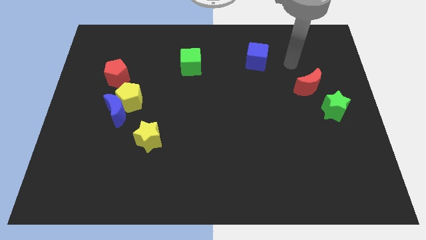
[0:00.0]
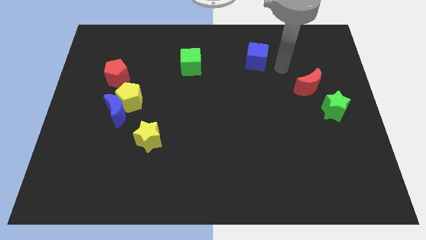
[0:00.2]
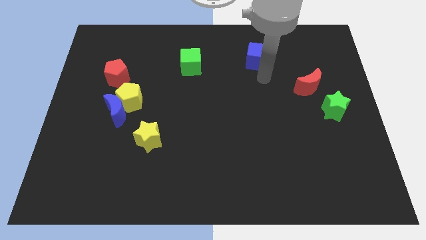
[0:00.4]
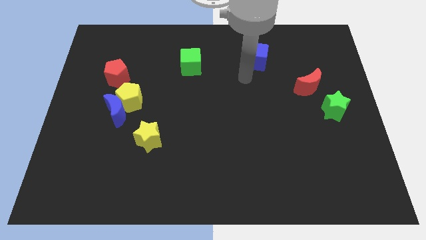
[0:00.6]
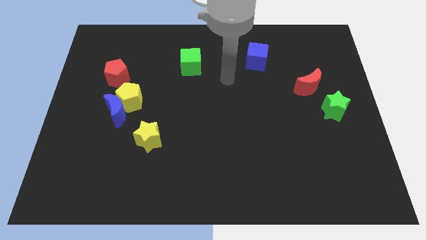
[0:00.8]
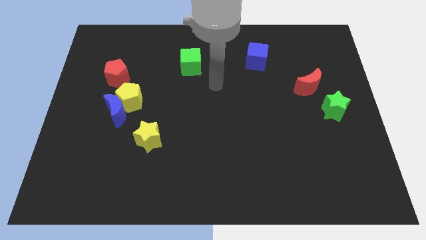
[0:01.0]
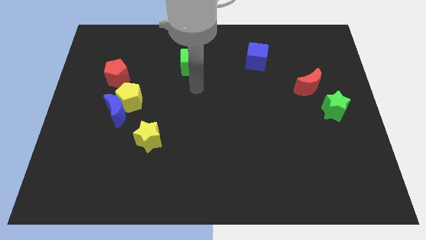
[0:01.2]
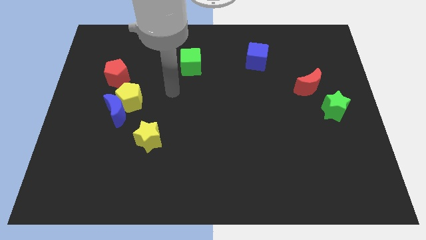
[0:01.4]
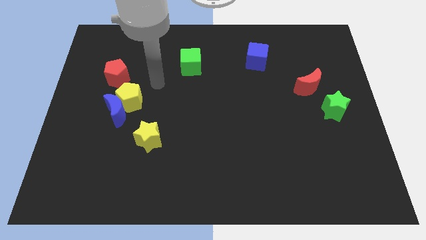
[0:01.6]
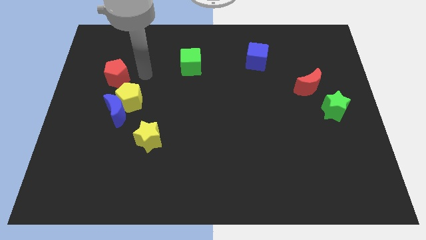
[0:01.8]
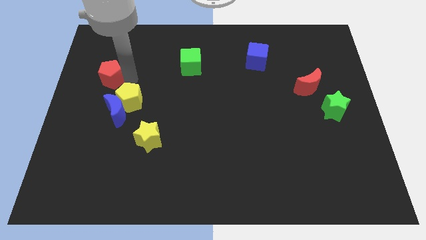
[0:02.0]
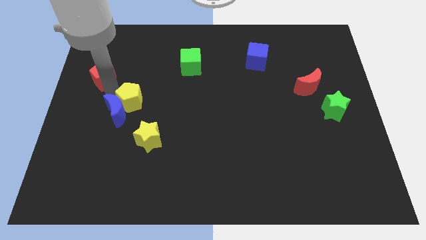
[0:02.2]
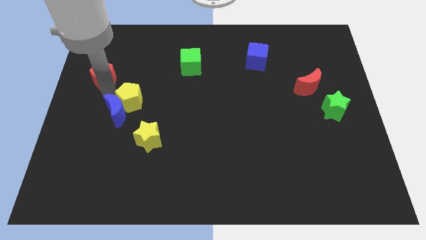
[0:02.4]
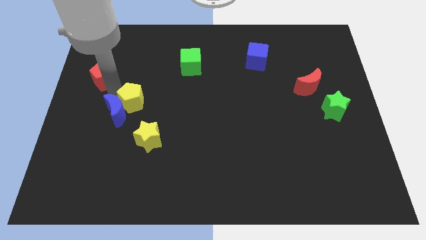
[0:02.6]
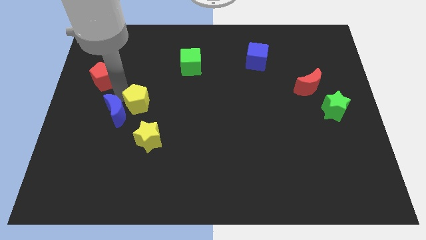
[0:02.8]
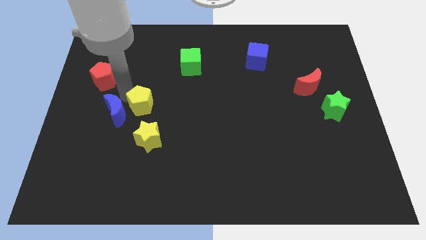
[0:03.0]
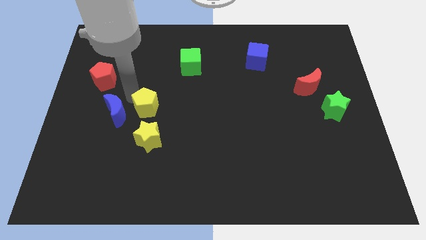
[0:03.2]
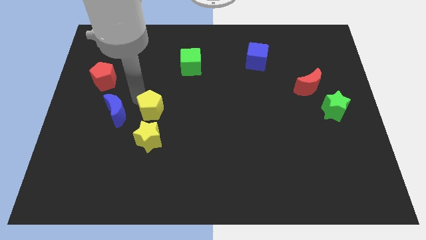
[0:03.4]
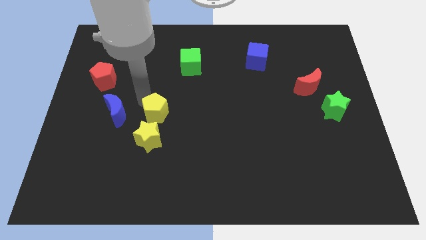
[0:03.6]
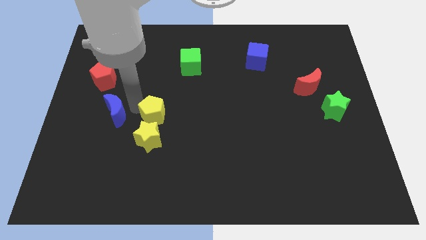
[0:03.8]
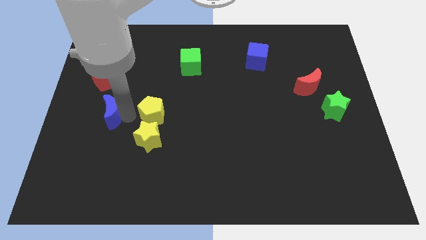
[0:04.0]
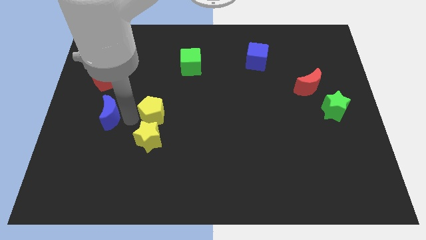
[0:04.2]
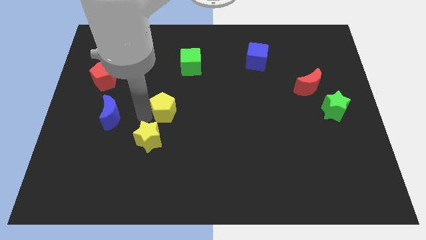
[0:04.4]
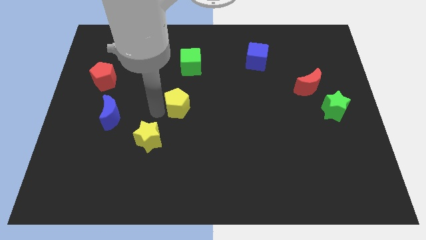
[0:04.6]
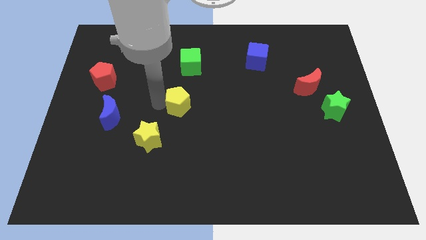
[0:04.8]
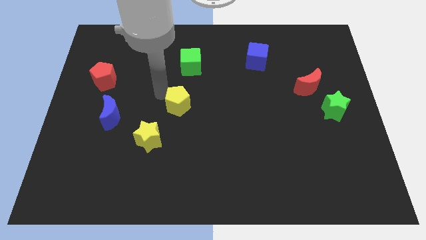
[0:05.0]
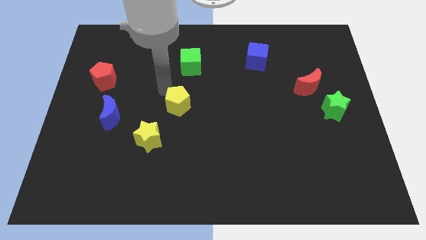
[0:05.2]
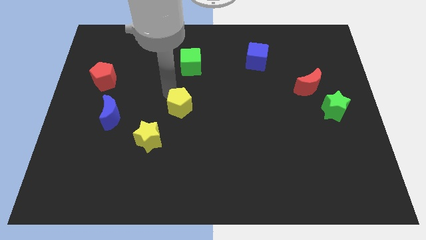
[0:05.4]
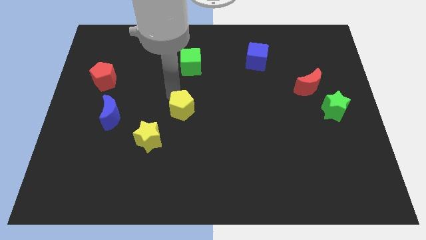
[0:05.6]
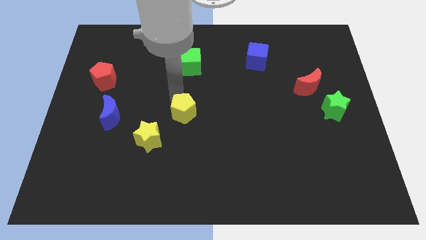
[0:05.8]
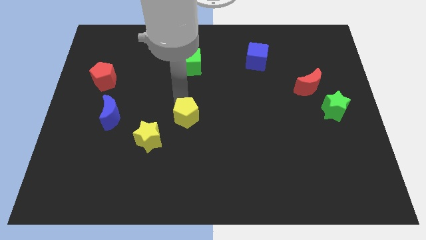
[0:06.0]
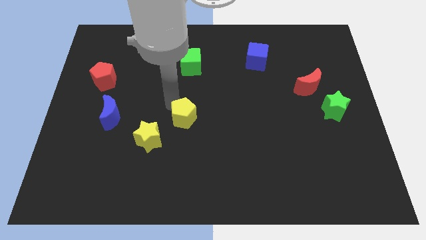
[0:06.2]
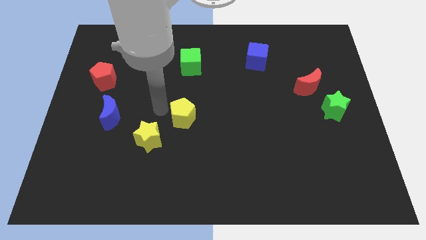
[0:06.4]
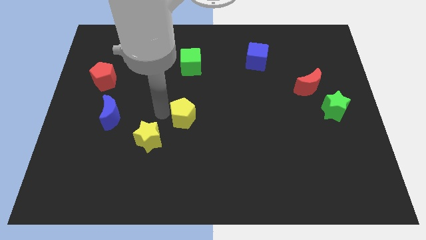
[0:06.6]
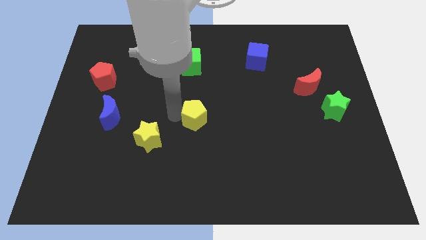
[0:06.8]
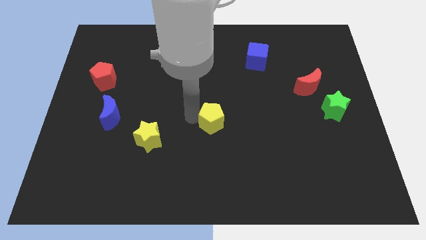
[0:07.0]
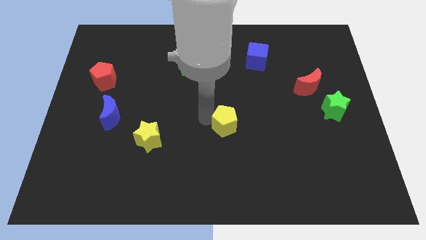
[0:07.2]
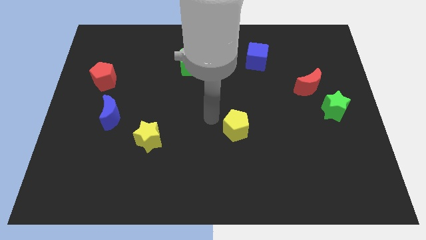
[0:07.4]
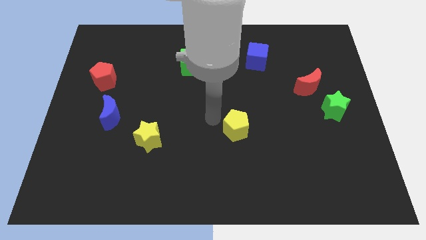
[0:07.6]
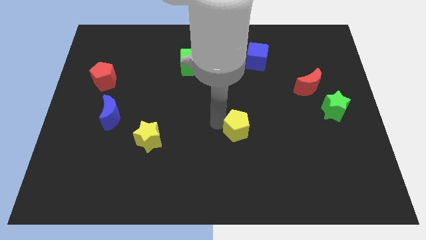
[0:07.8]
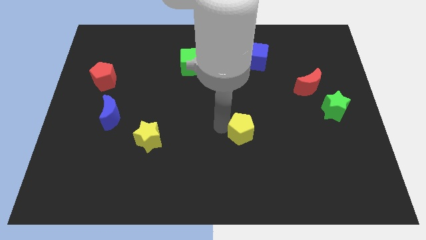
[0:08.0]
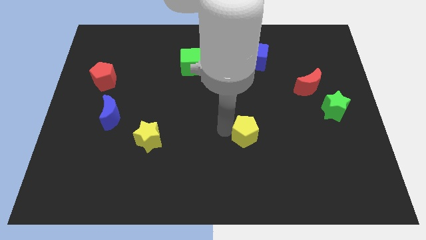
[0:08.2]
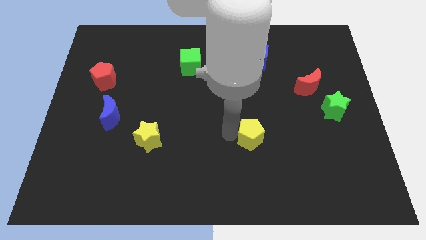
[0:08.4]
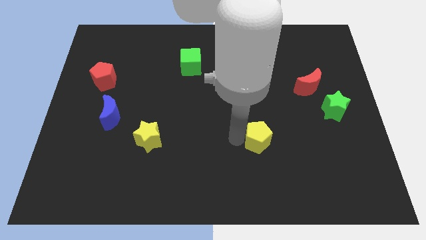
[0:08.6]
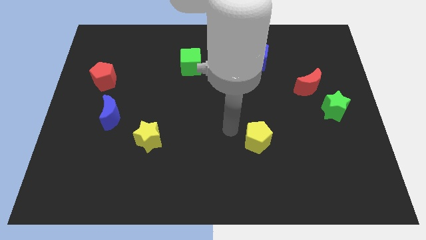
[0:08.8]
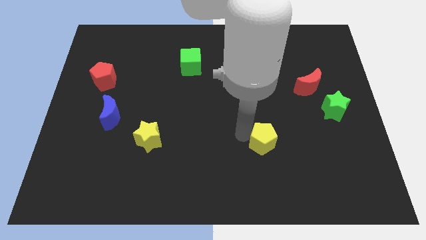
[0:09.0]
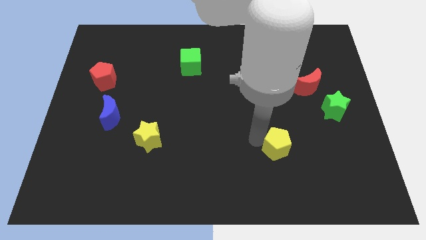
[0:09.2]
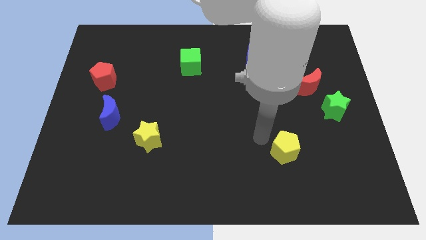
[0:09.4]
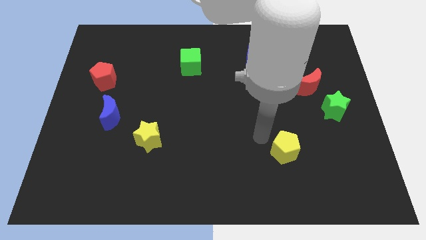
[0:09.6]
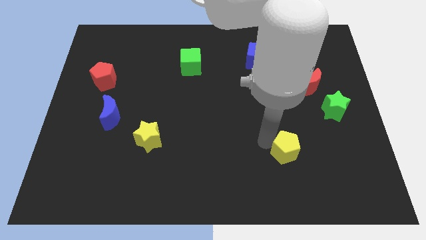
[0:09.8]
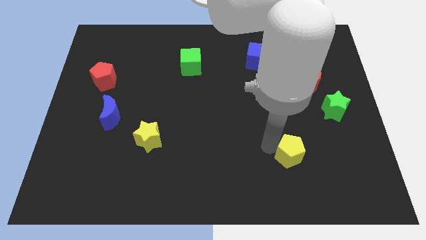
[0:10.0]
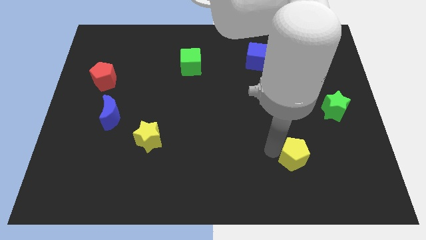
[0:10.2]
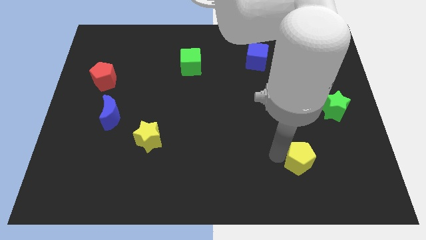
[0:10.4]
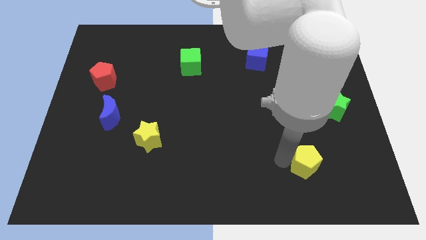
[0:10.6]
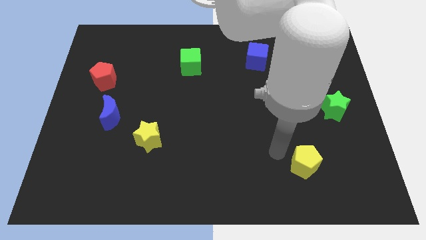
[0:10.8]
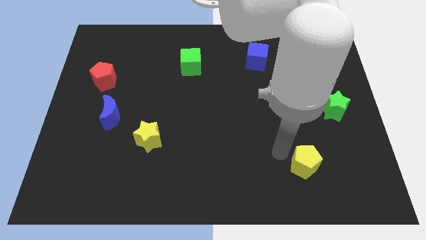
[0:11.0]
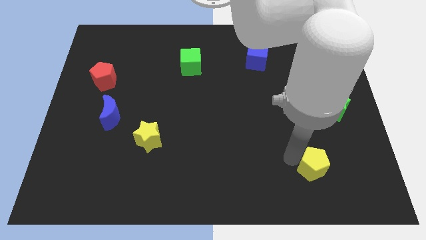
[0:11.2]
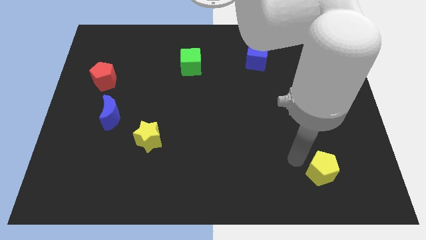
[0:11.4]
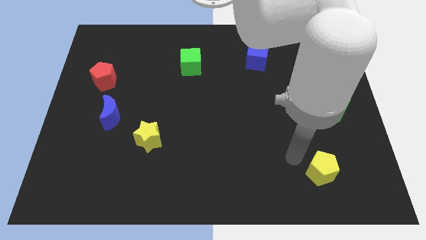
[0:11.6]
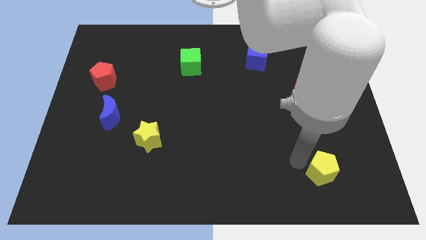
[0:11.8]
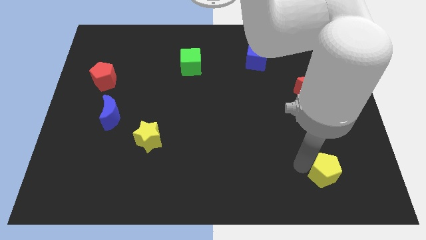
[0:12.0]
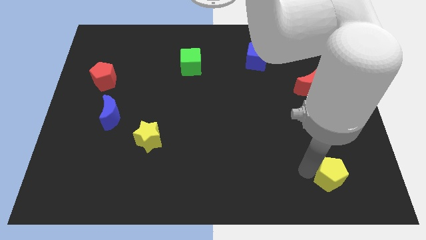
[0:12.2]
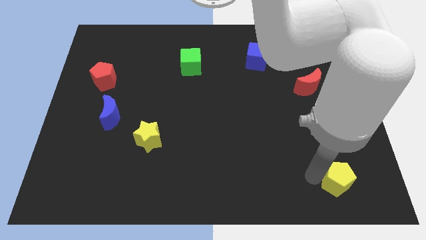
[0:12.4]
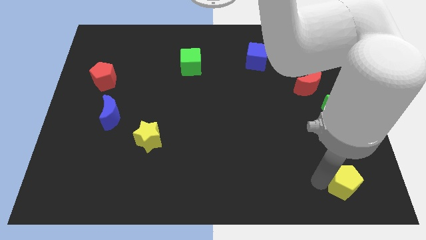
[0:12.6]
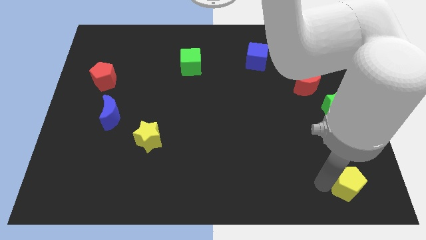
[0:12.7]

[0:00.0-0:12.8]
move the yellow pentagon to the lower right corner
